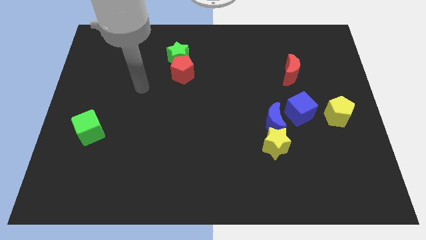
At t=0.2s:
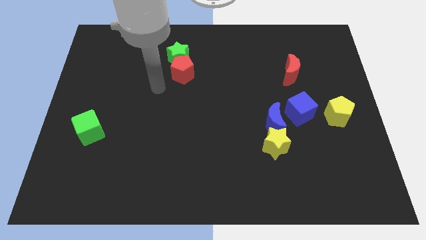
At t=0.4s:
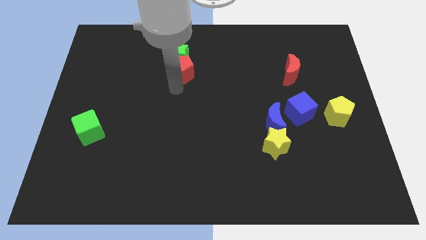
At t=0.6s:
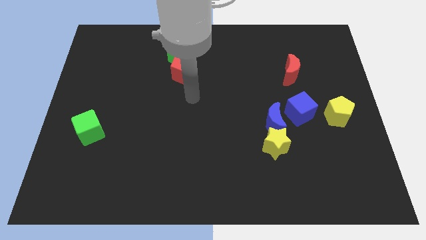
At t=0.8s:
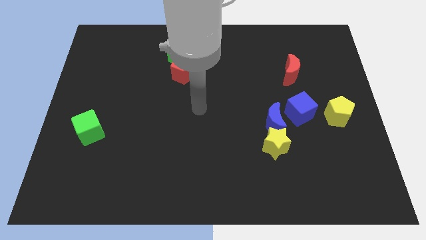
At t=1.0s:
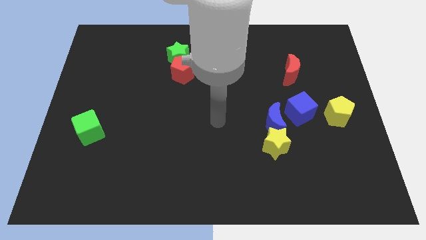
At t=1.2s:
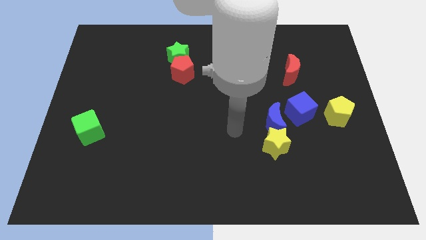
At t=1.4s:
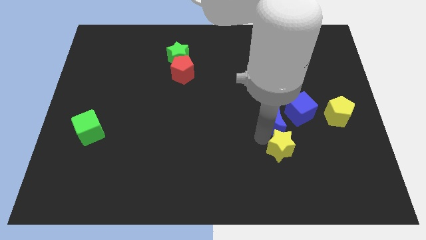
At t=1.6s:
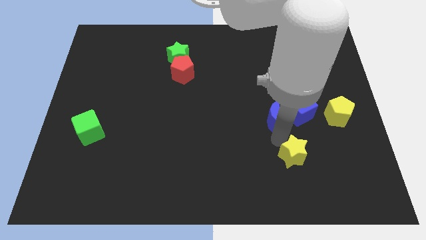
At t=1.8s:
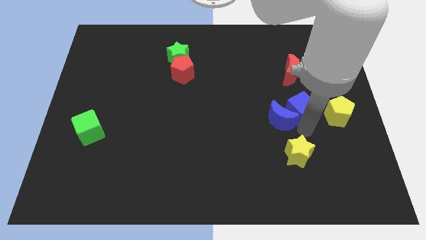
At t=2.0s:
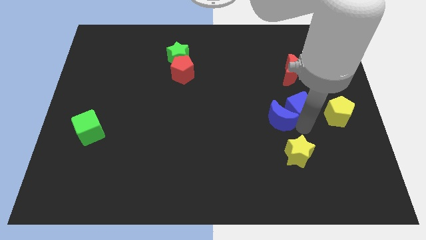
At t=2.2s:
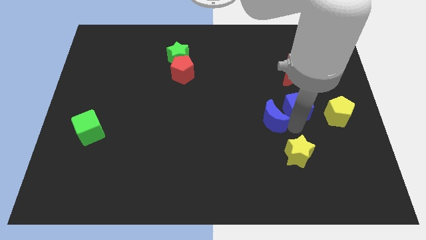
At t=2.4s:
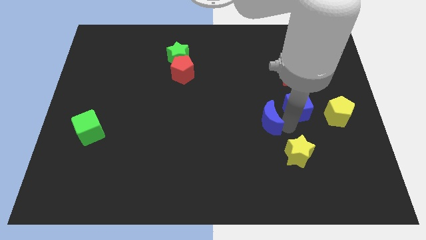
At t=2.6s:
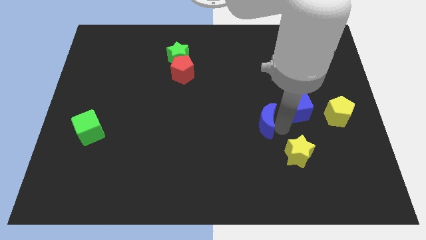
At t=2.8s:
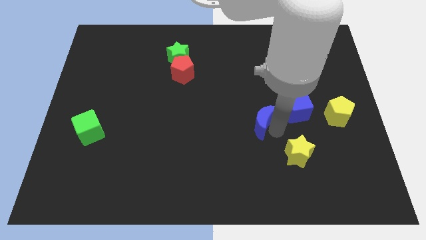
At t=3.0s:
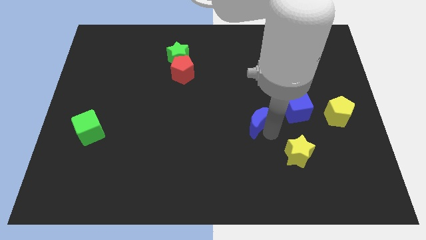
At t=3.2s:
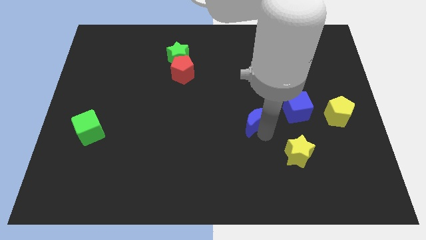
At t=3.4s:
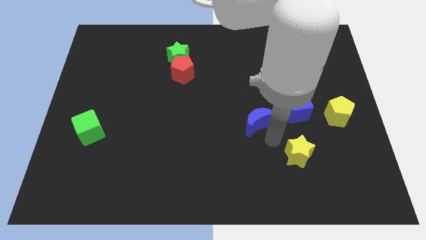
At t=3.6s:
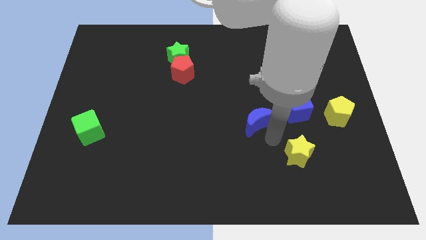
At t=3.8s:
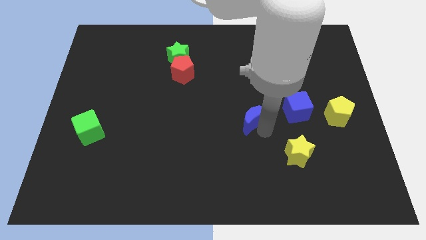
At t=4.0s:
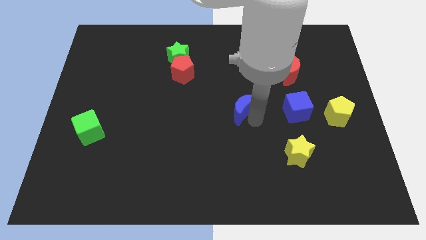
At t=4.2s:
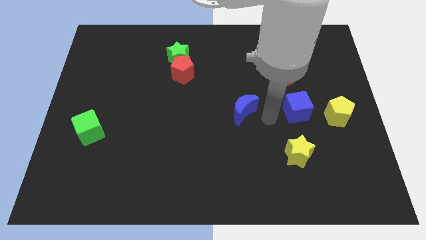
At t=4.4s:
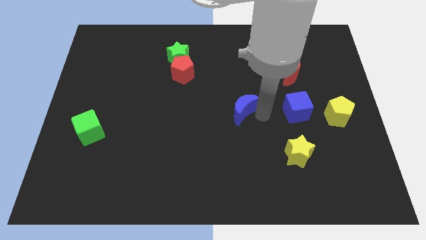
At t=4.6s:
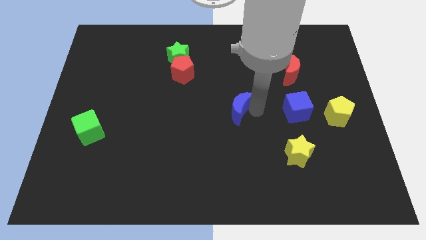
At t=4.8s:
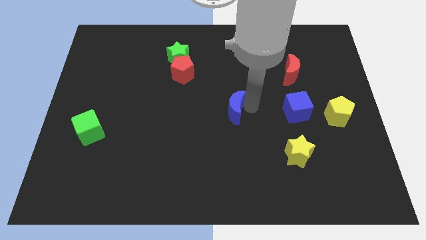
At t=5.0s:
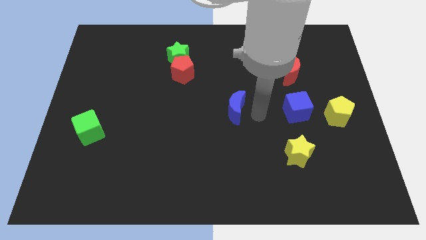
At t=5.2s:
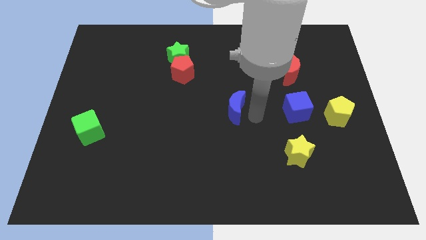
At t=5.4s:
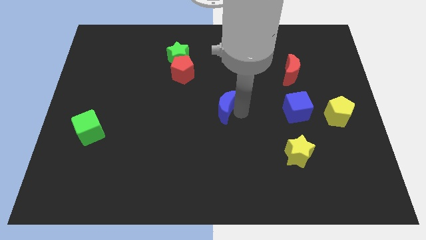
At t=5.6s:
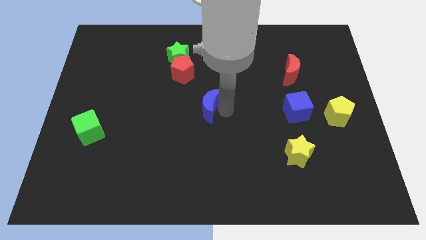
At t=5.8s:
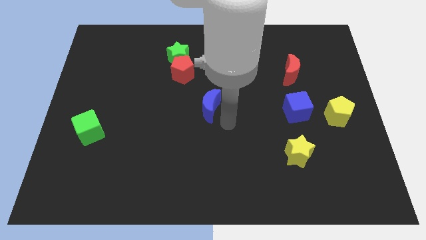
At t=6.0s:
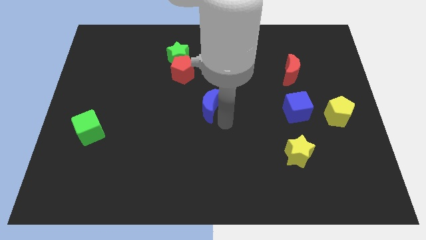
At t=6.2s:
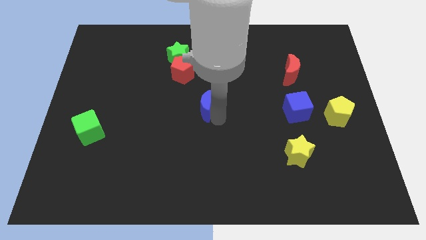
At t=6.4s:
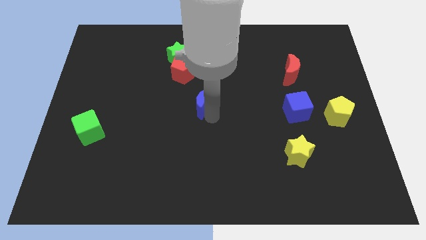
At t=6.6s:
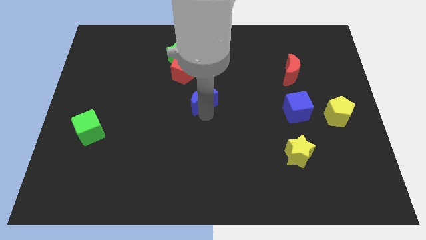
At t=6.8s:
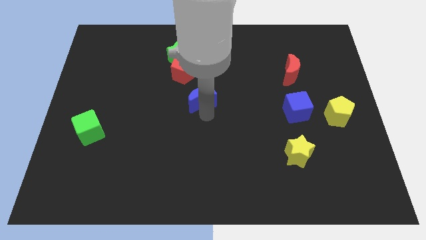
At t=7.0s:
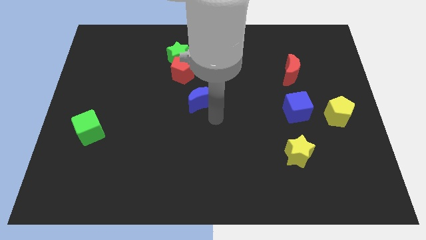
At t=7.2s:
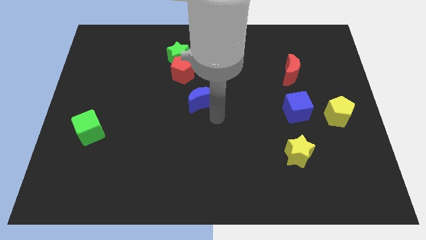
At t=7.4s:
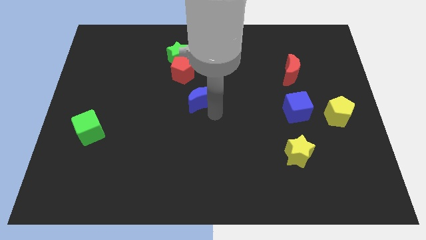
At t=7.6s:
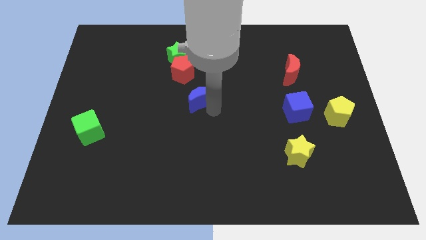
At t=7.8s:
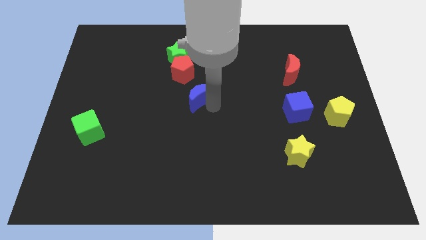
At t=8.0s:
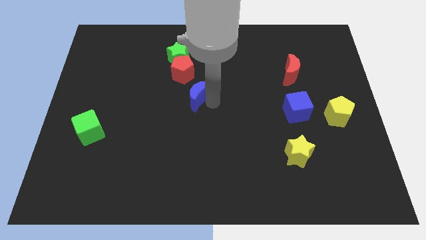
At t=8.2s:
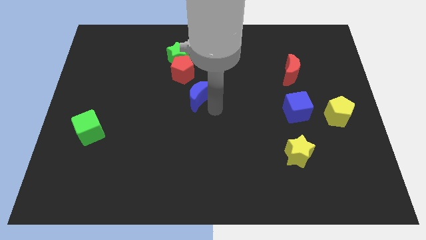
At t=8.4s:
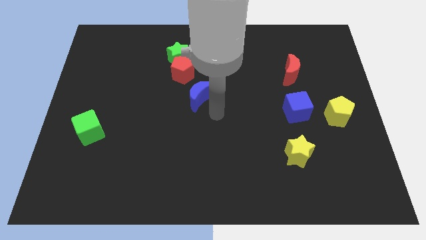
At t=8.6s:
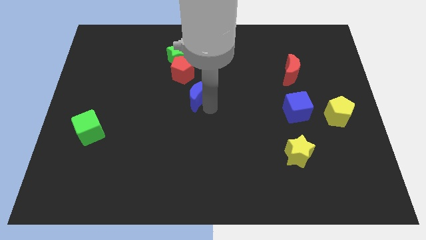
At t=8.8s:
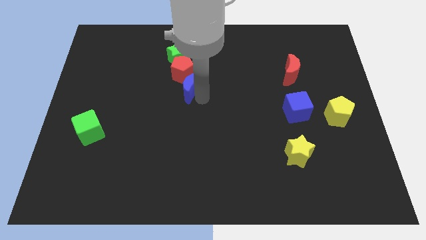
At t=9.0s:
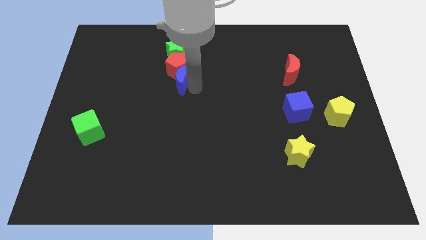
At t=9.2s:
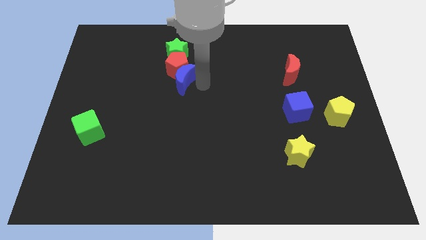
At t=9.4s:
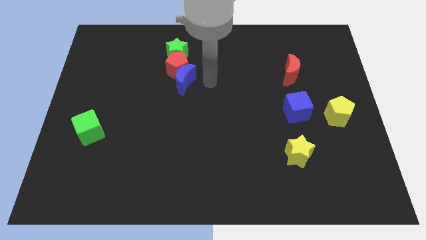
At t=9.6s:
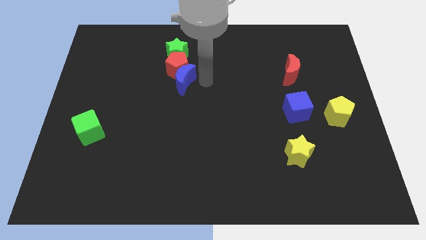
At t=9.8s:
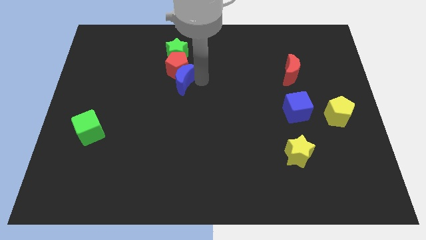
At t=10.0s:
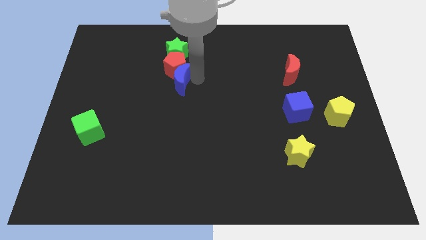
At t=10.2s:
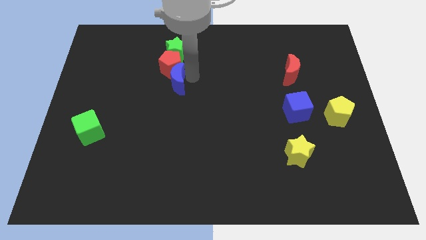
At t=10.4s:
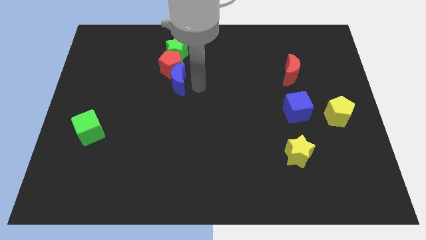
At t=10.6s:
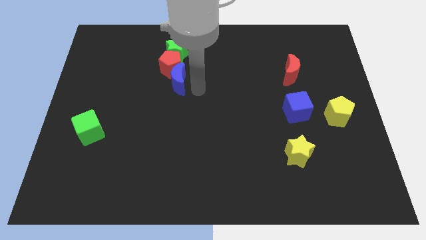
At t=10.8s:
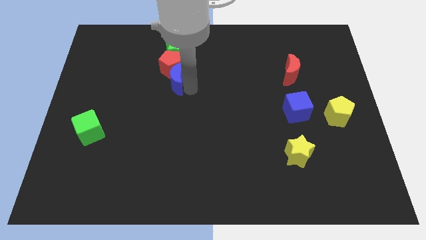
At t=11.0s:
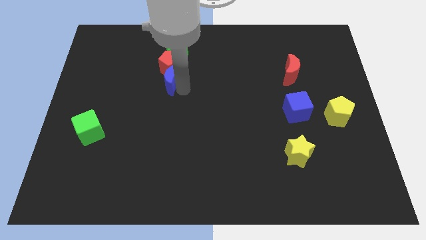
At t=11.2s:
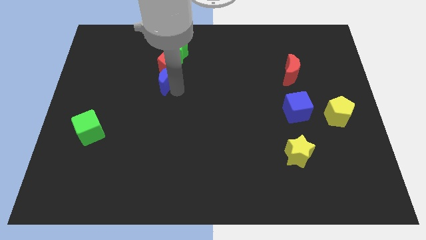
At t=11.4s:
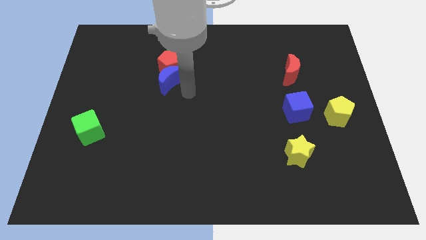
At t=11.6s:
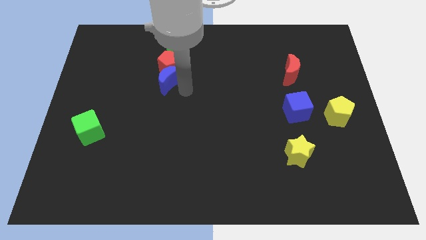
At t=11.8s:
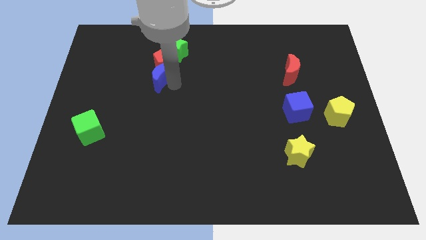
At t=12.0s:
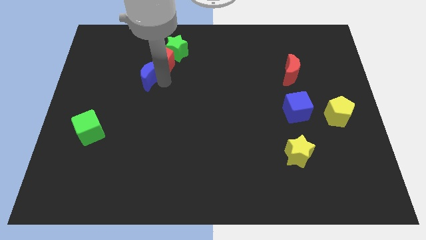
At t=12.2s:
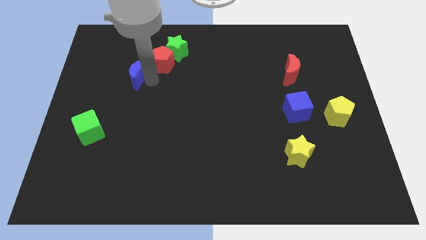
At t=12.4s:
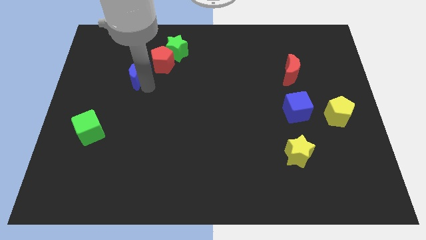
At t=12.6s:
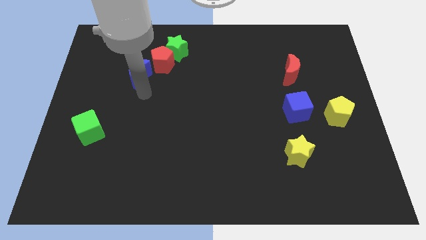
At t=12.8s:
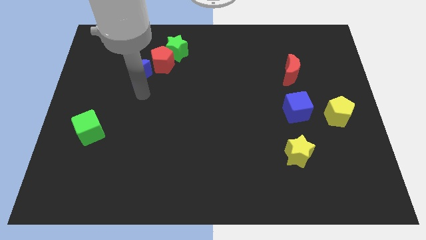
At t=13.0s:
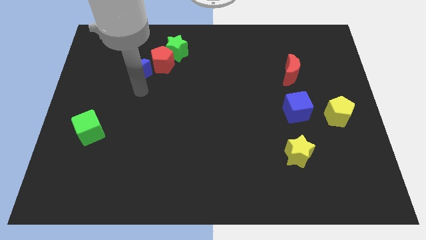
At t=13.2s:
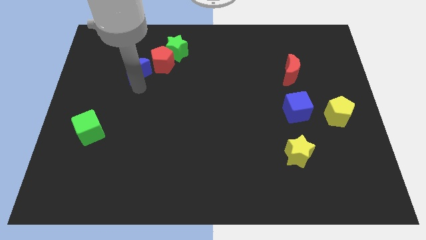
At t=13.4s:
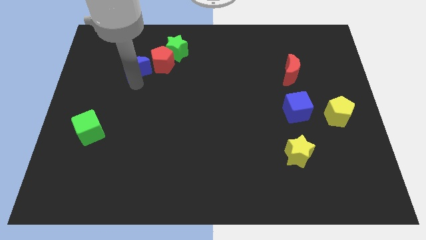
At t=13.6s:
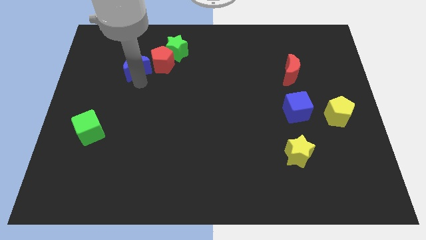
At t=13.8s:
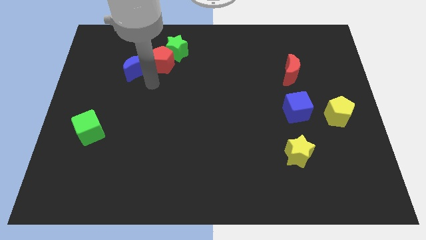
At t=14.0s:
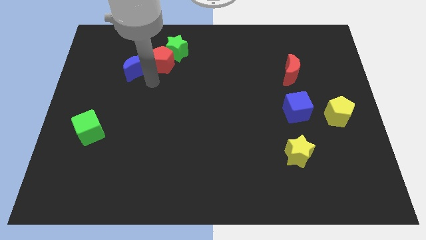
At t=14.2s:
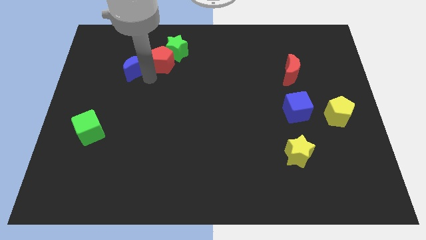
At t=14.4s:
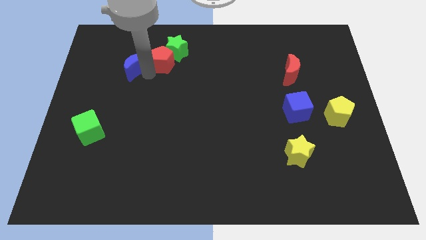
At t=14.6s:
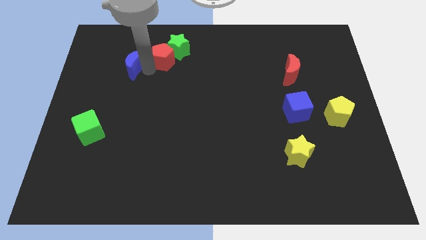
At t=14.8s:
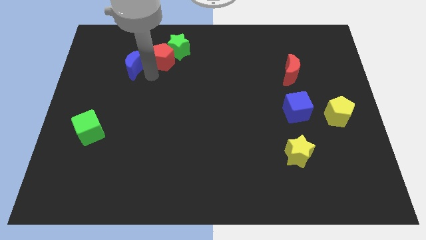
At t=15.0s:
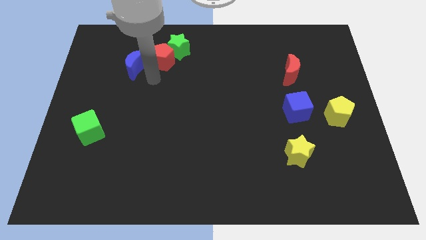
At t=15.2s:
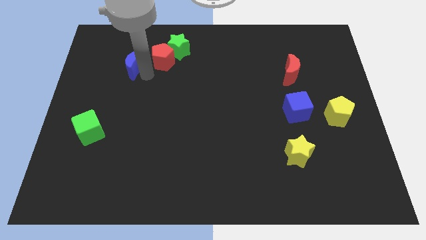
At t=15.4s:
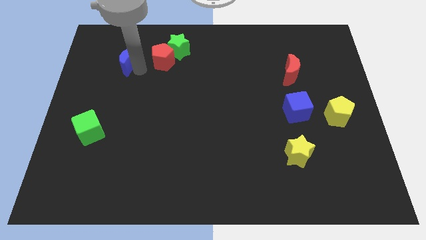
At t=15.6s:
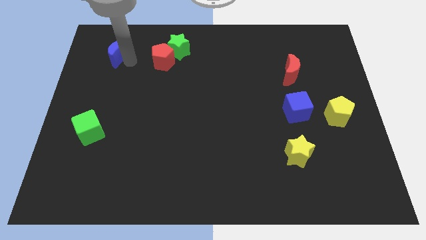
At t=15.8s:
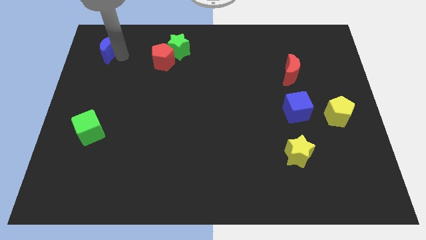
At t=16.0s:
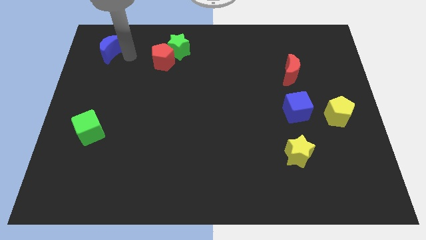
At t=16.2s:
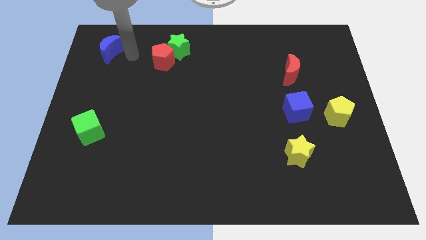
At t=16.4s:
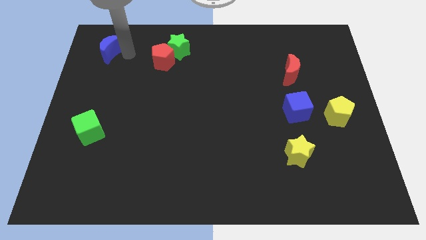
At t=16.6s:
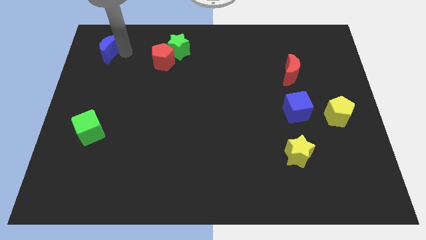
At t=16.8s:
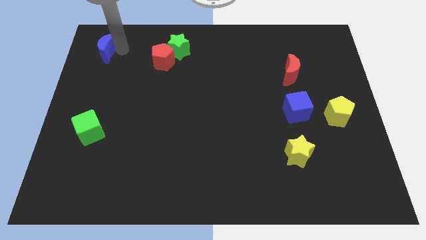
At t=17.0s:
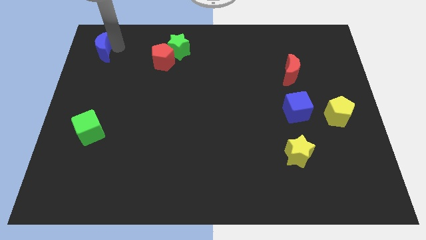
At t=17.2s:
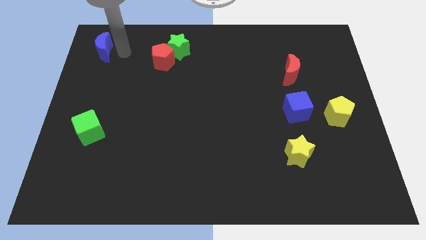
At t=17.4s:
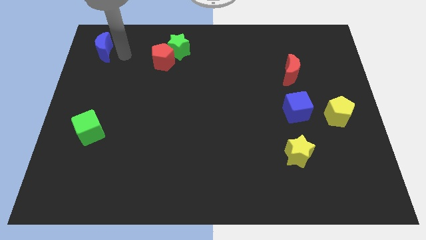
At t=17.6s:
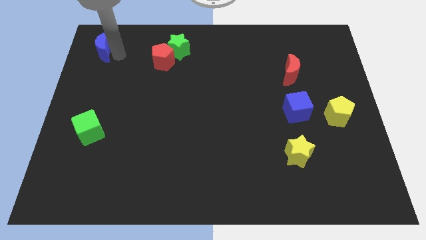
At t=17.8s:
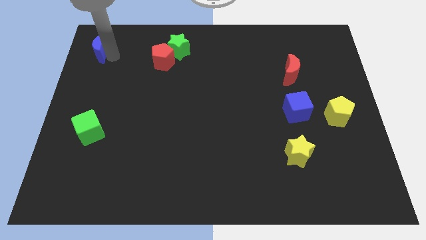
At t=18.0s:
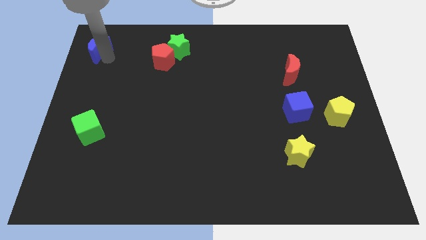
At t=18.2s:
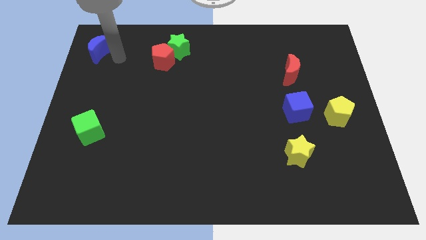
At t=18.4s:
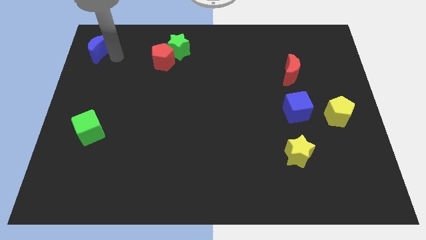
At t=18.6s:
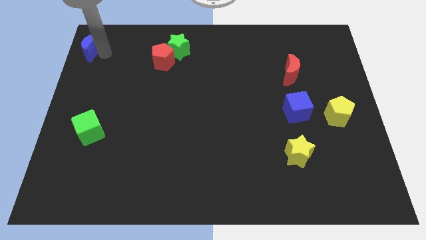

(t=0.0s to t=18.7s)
slide the blue moon to the top left
